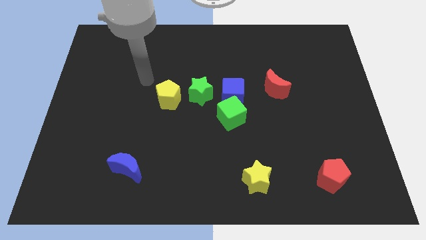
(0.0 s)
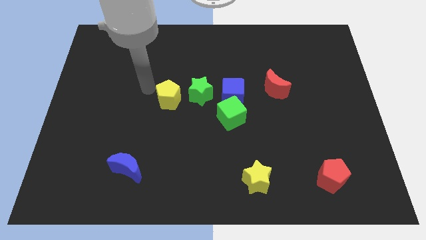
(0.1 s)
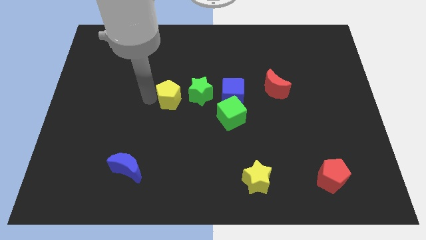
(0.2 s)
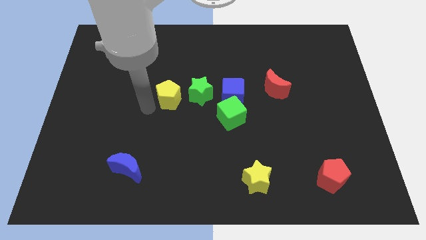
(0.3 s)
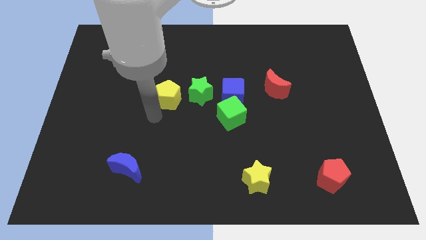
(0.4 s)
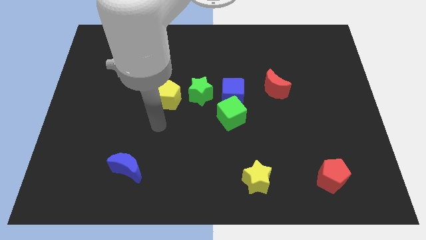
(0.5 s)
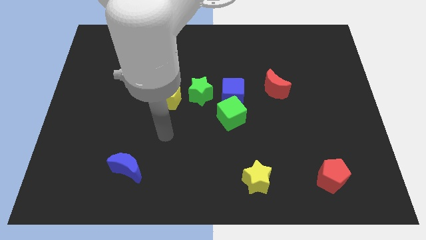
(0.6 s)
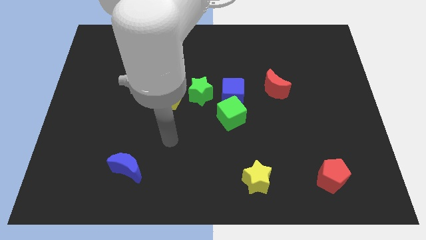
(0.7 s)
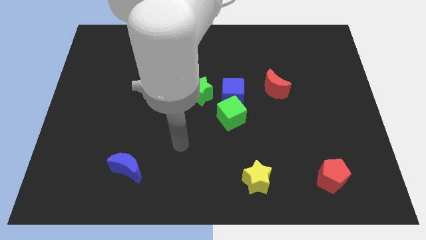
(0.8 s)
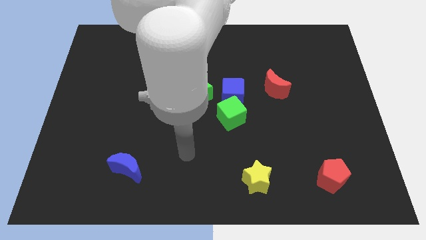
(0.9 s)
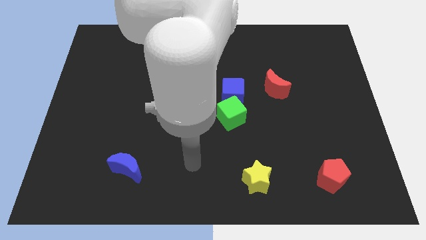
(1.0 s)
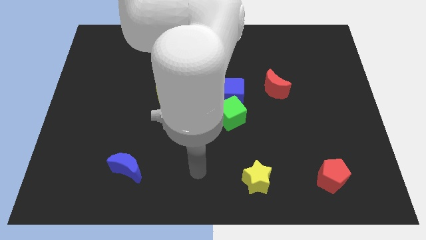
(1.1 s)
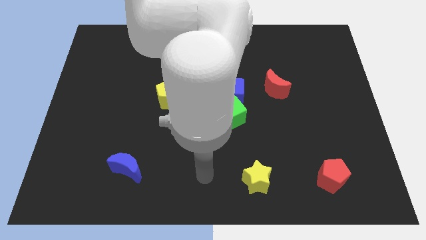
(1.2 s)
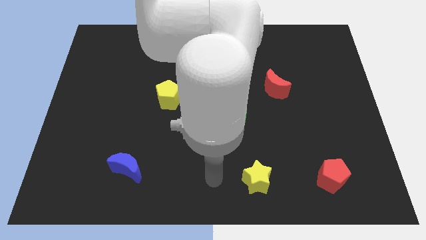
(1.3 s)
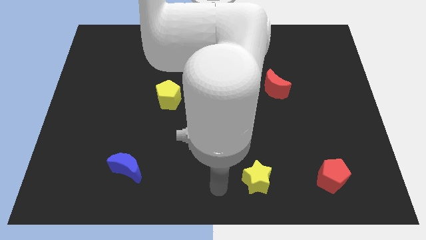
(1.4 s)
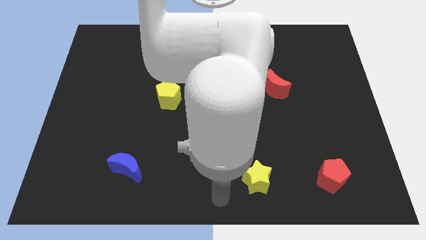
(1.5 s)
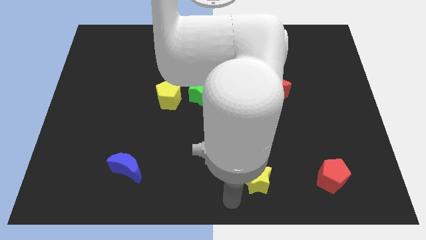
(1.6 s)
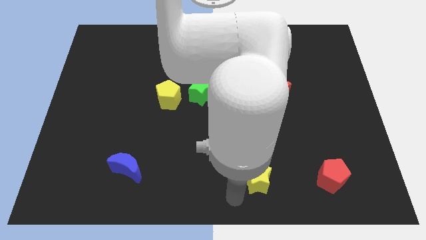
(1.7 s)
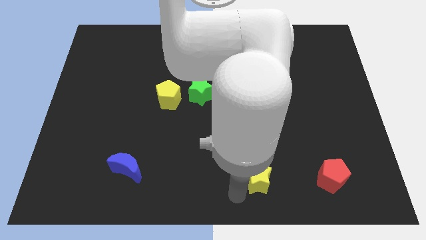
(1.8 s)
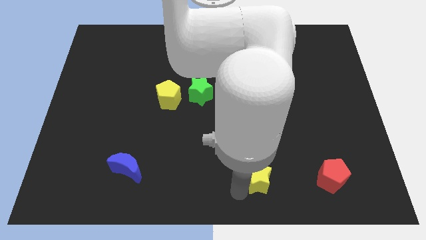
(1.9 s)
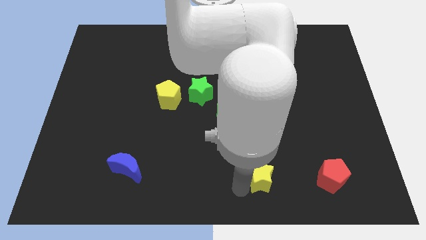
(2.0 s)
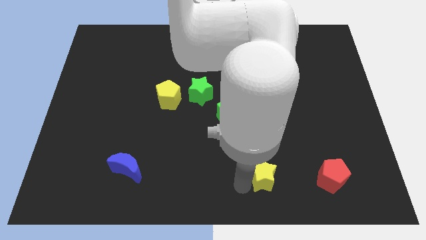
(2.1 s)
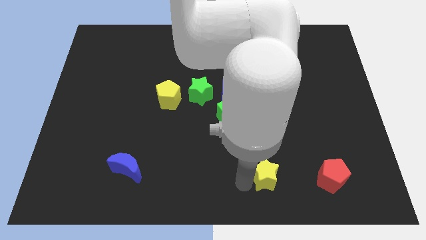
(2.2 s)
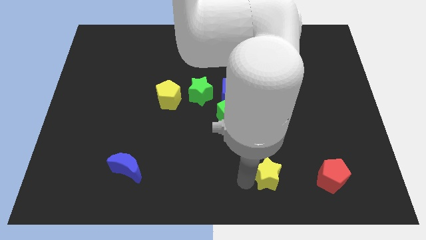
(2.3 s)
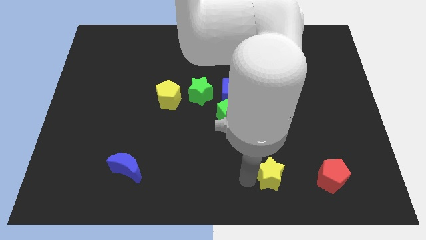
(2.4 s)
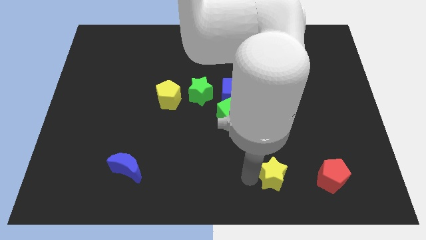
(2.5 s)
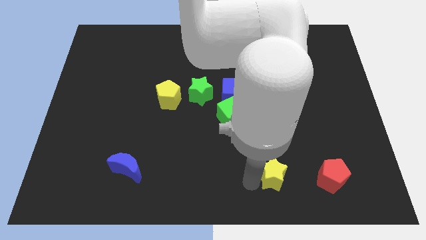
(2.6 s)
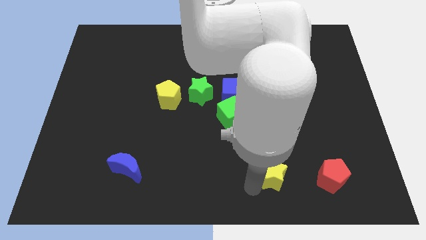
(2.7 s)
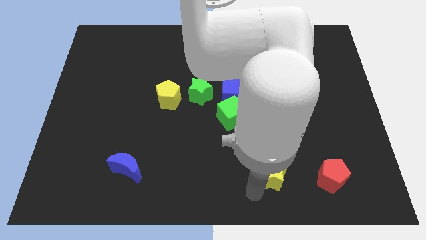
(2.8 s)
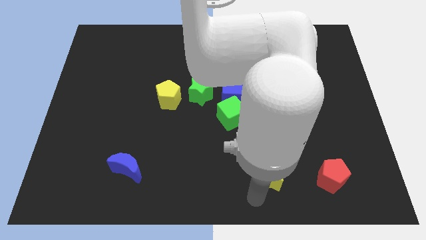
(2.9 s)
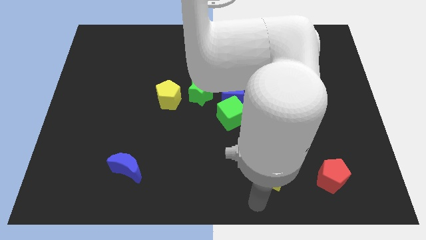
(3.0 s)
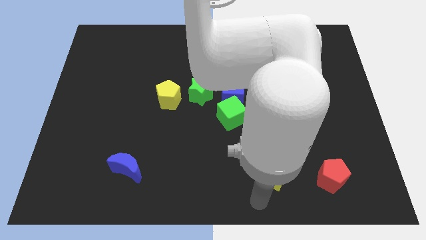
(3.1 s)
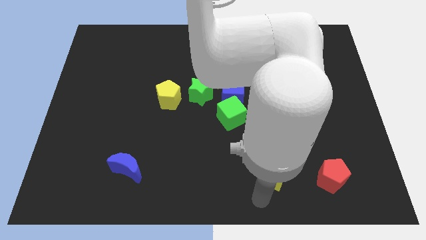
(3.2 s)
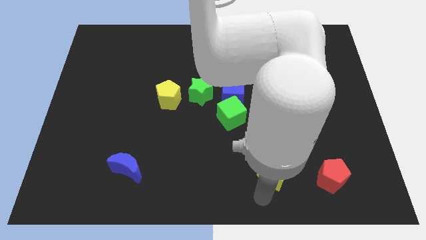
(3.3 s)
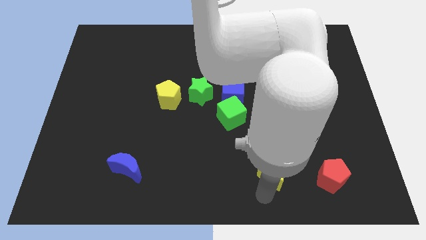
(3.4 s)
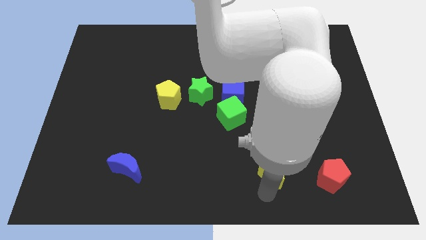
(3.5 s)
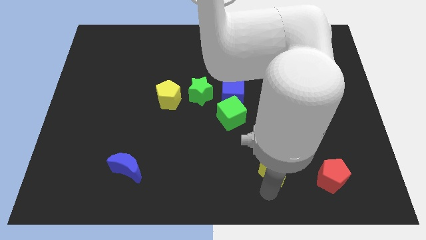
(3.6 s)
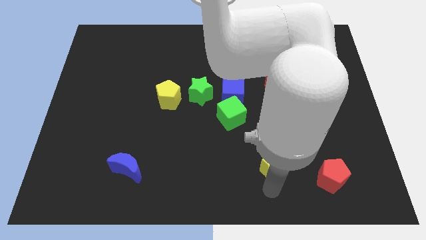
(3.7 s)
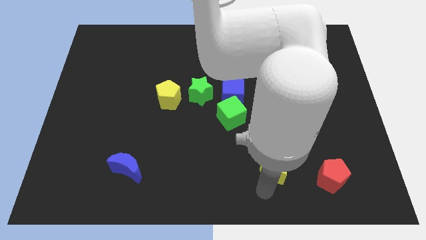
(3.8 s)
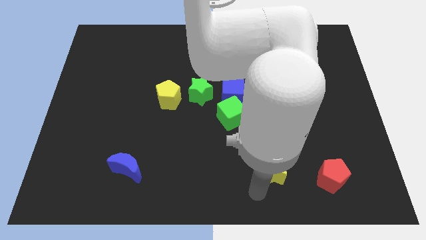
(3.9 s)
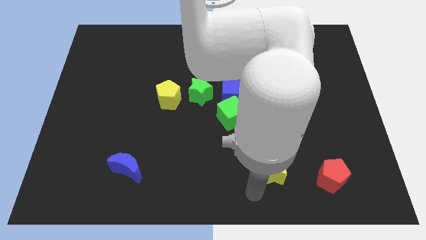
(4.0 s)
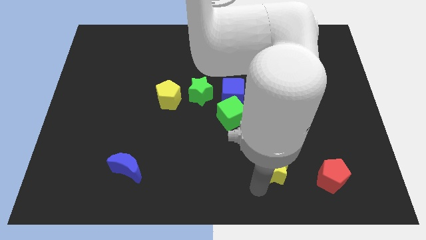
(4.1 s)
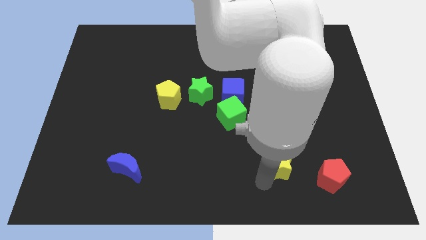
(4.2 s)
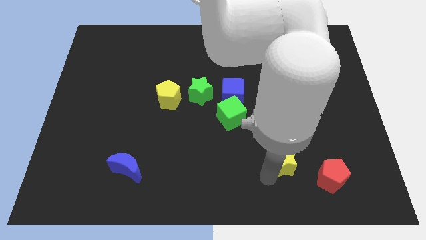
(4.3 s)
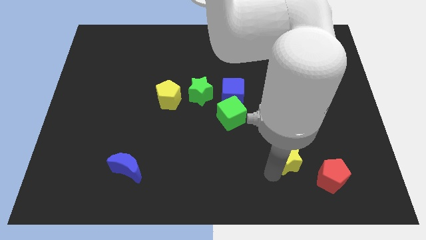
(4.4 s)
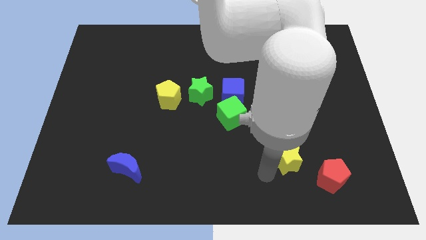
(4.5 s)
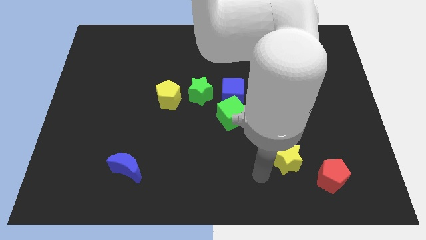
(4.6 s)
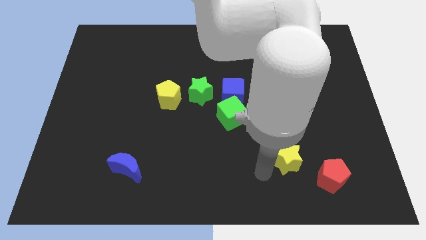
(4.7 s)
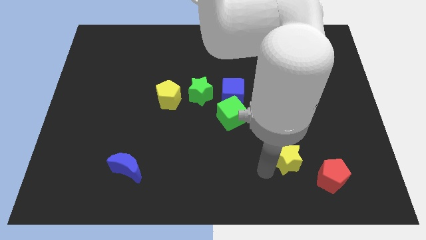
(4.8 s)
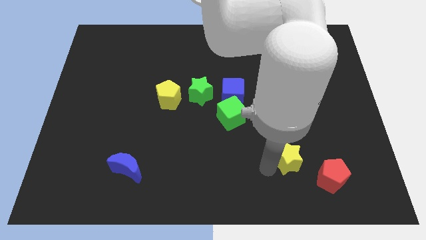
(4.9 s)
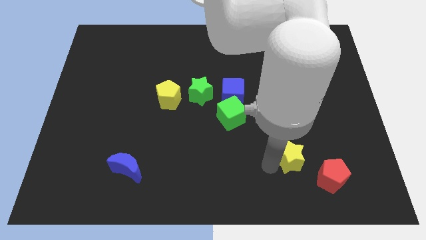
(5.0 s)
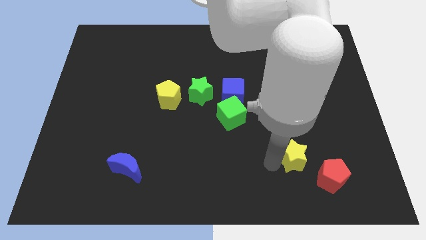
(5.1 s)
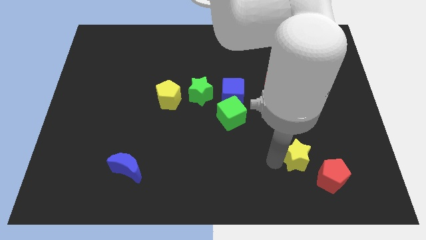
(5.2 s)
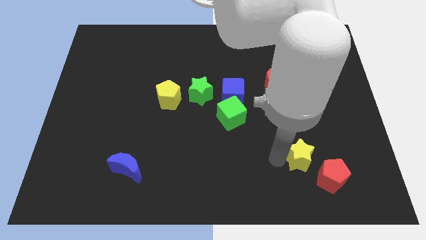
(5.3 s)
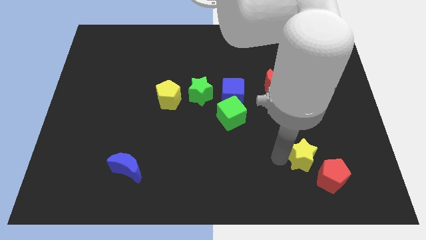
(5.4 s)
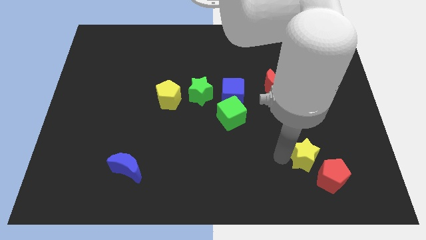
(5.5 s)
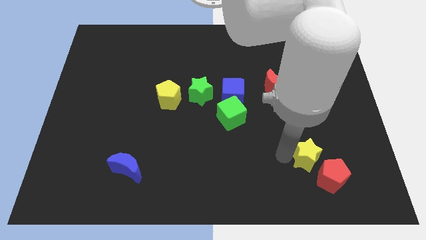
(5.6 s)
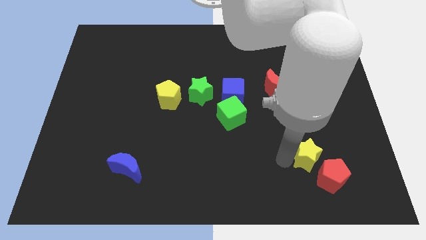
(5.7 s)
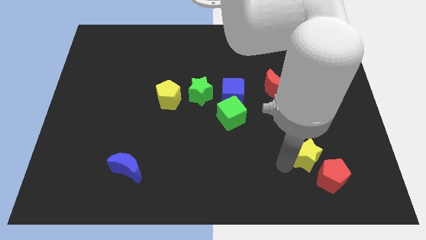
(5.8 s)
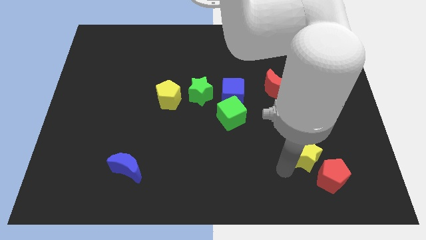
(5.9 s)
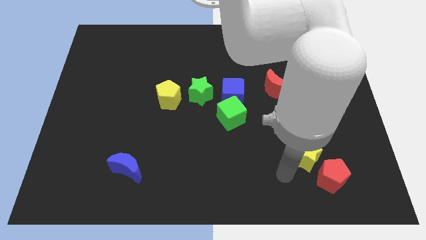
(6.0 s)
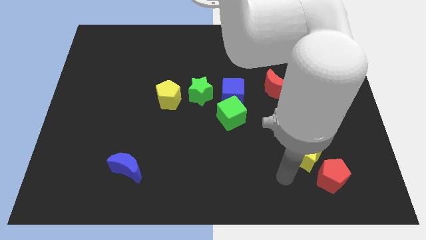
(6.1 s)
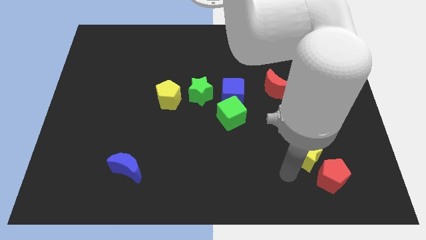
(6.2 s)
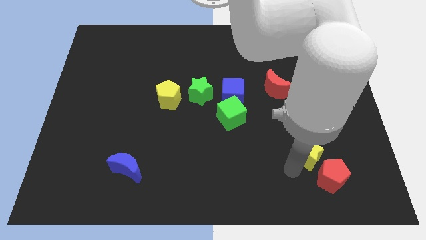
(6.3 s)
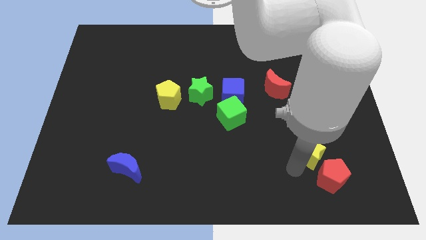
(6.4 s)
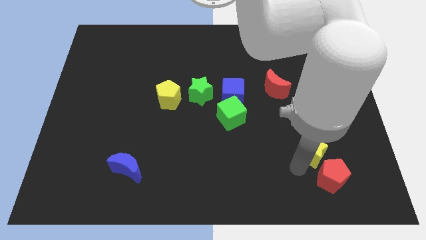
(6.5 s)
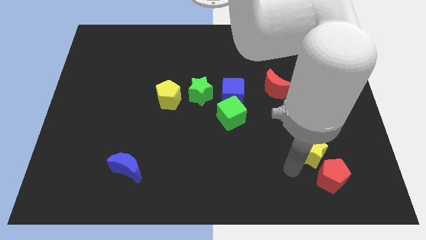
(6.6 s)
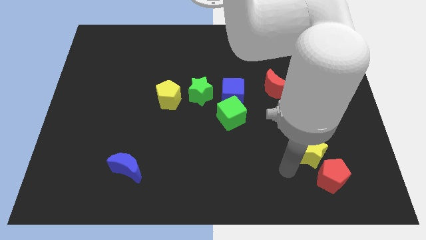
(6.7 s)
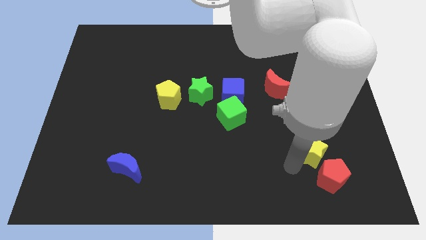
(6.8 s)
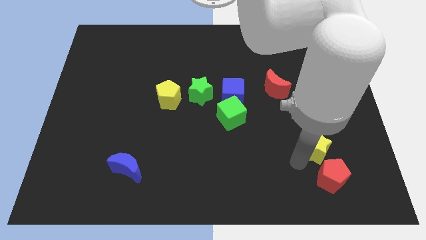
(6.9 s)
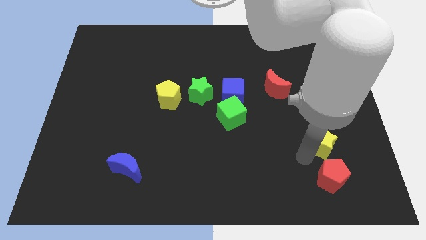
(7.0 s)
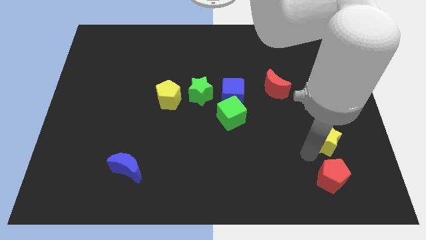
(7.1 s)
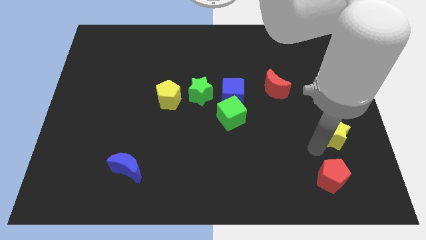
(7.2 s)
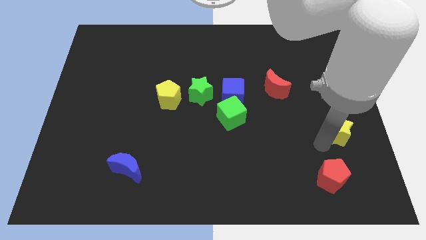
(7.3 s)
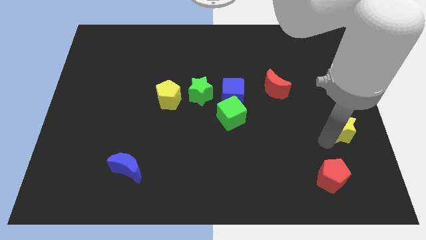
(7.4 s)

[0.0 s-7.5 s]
slide the yellow star to the right side of the board
